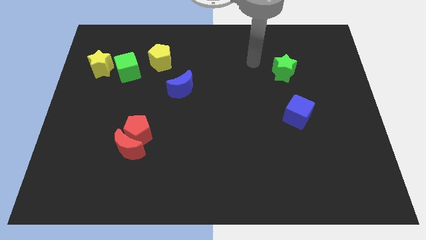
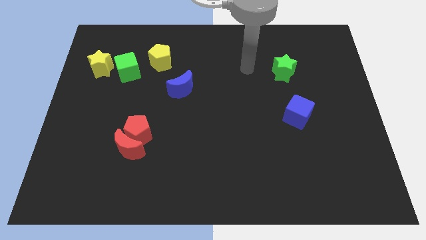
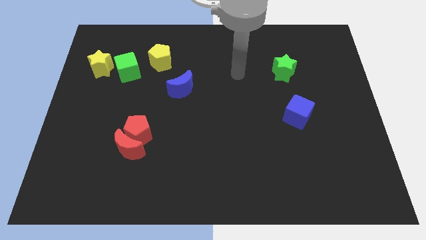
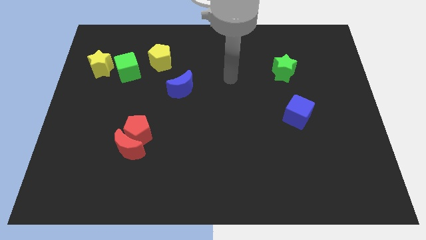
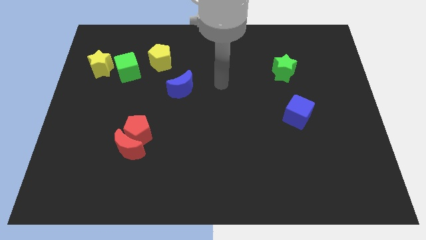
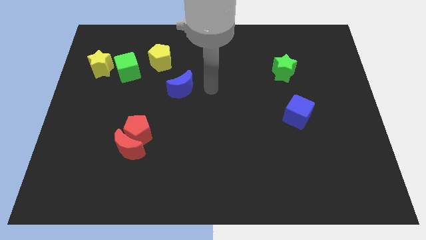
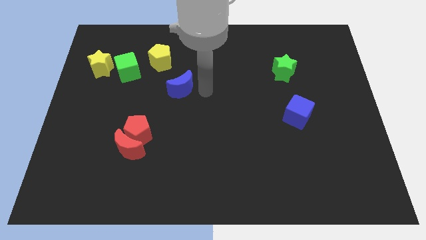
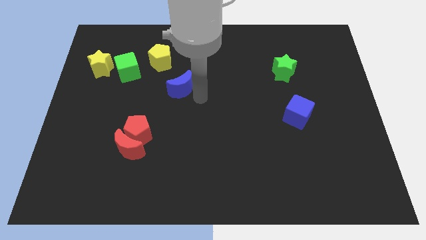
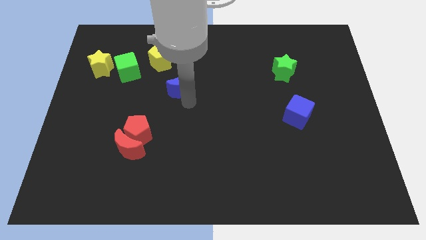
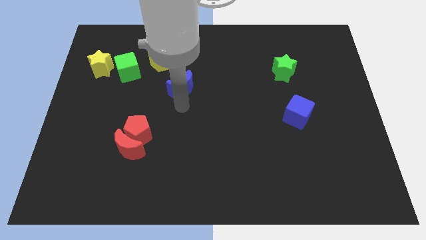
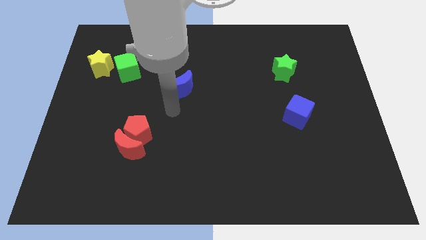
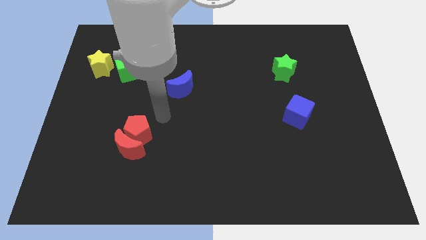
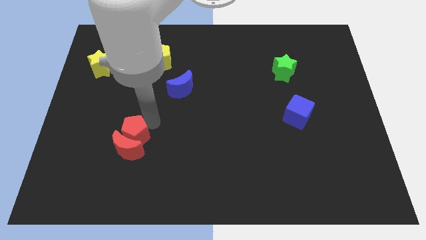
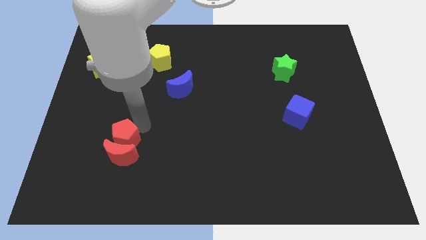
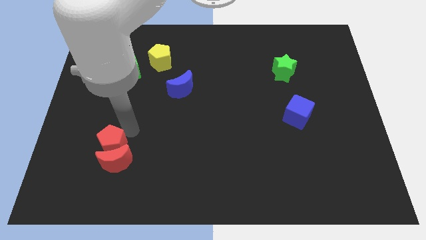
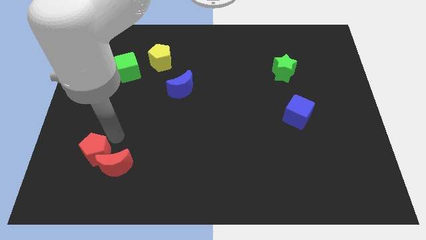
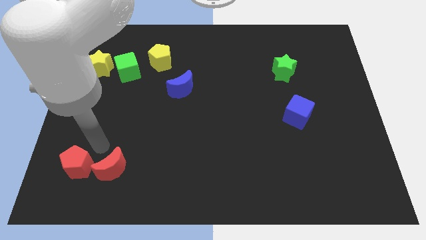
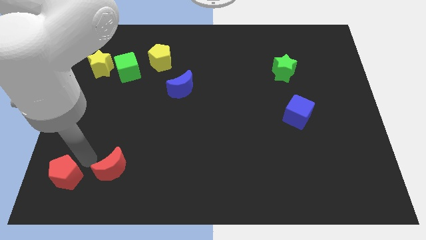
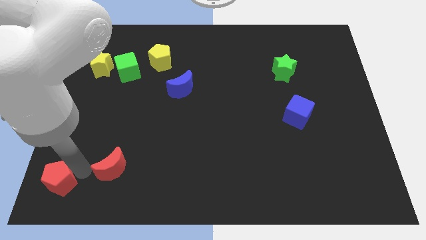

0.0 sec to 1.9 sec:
move the red moon away from the red pentagon

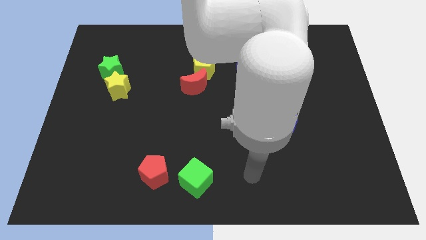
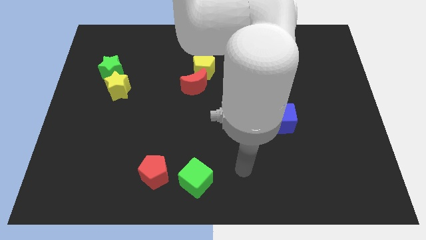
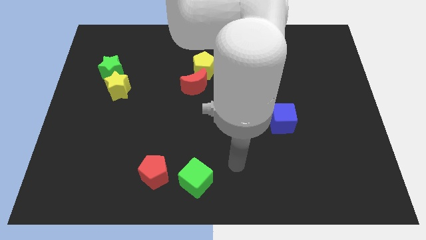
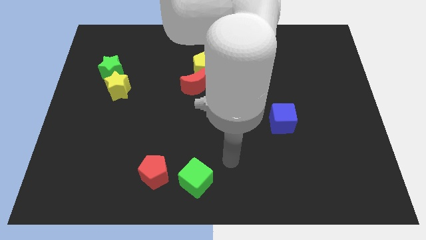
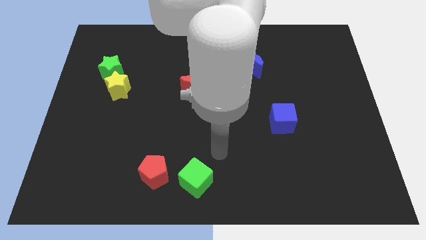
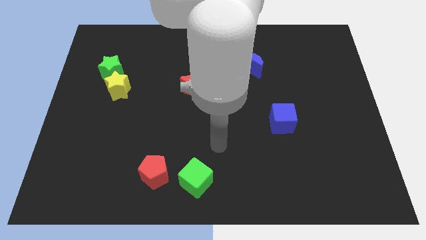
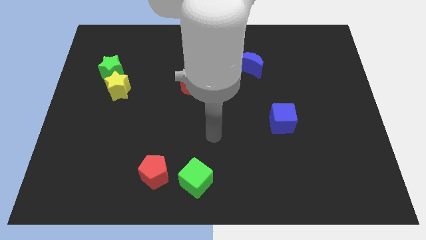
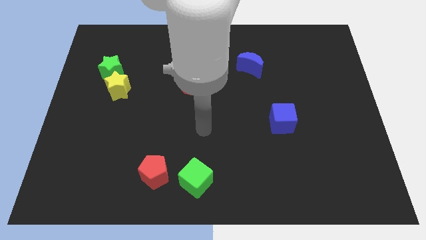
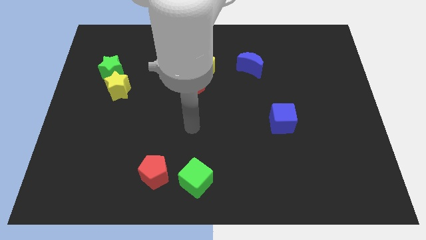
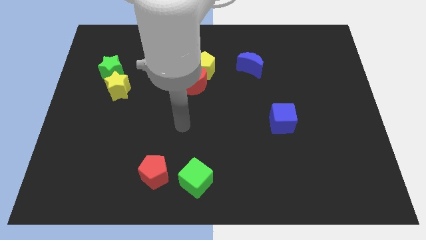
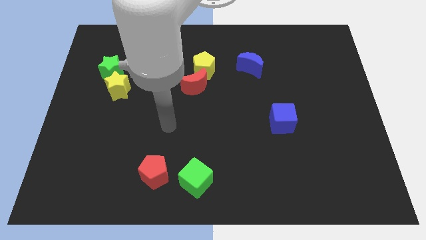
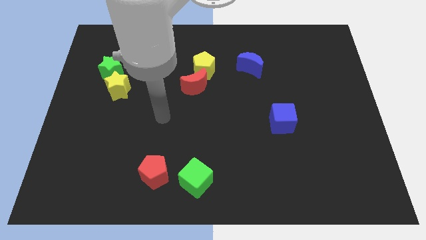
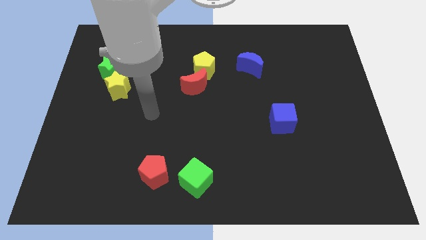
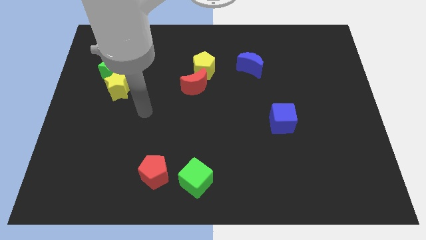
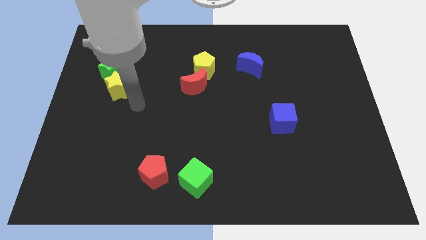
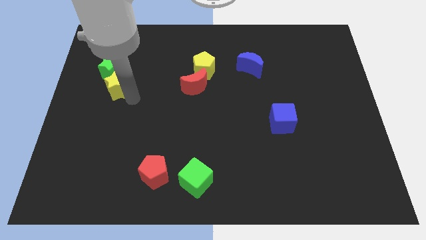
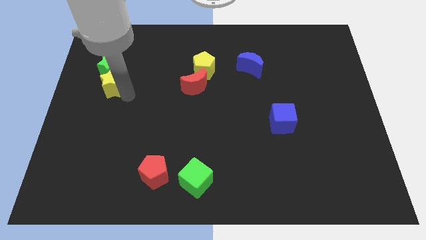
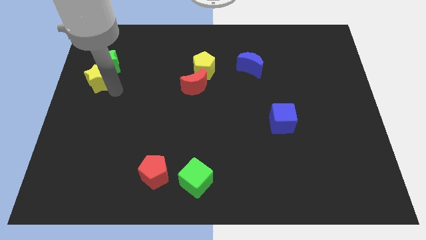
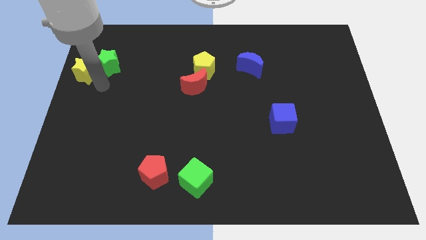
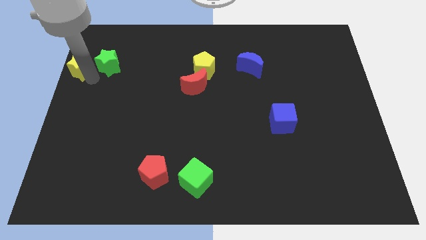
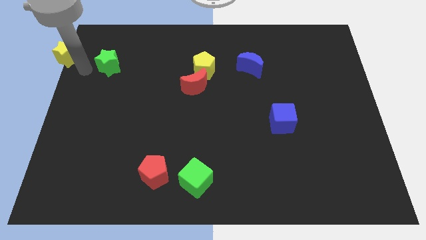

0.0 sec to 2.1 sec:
pull the green star apart from the yellow star

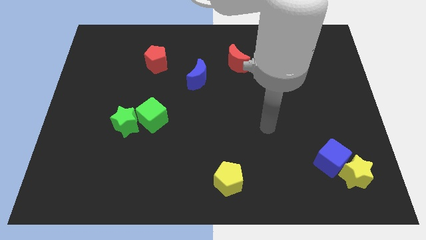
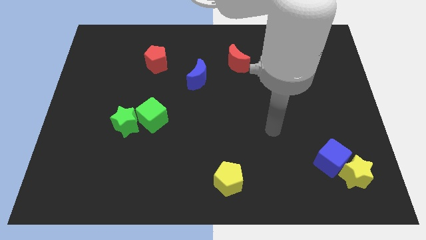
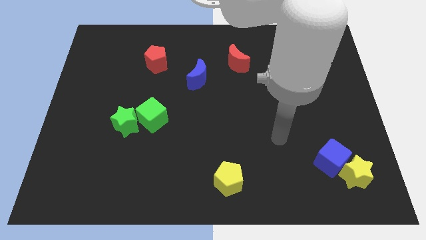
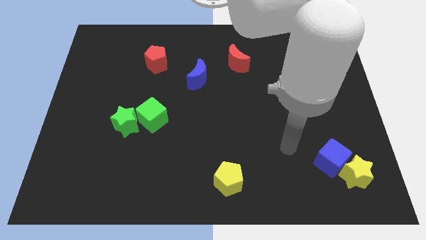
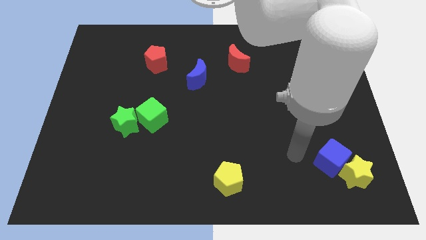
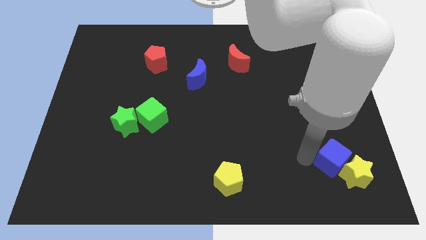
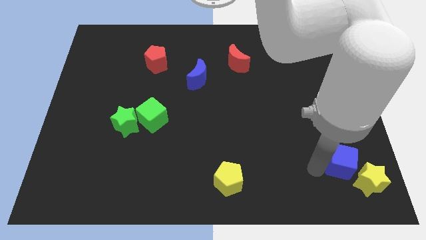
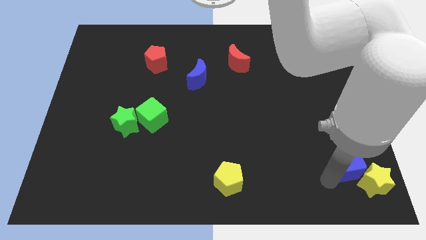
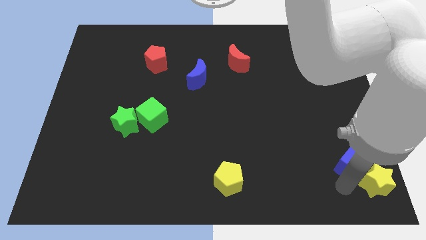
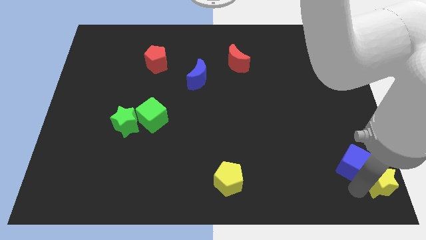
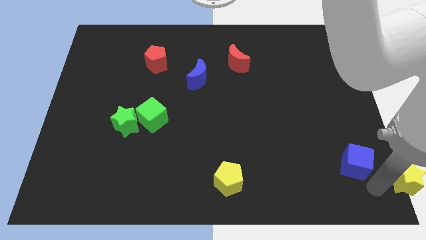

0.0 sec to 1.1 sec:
move the blue cube away from the yellow star

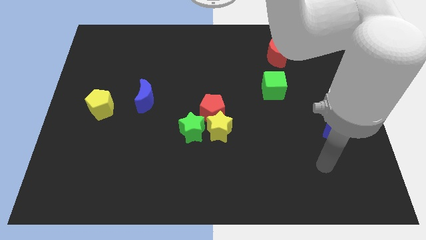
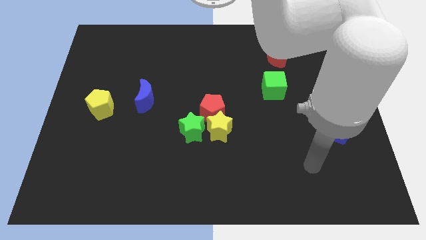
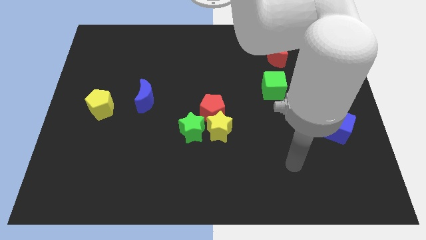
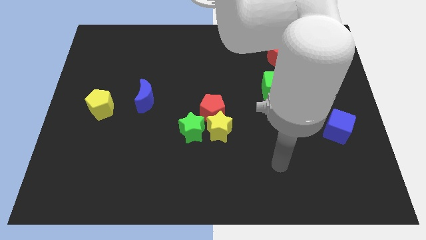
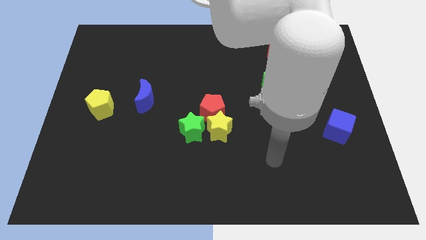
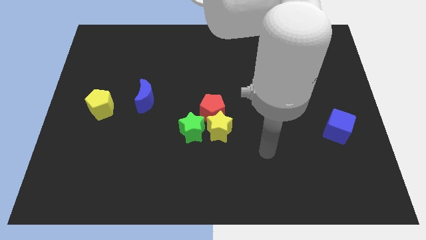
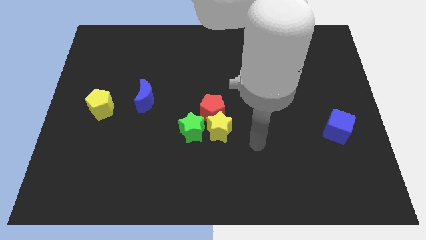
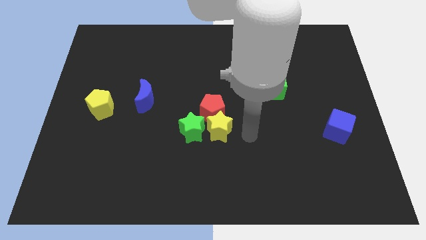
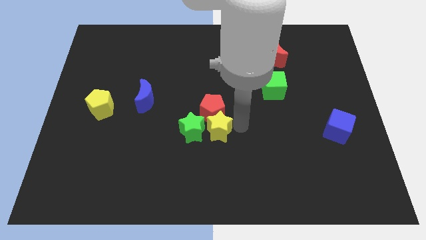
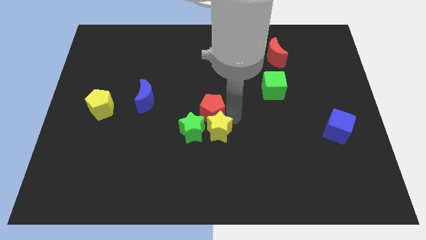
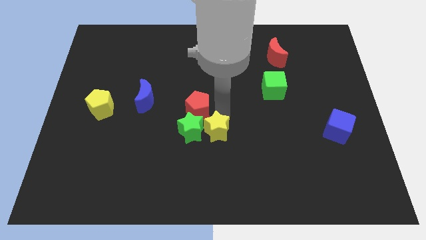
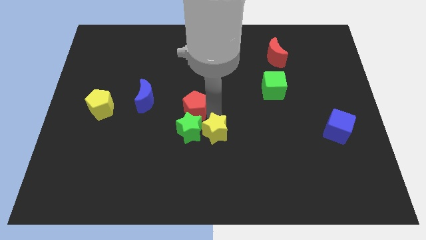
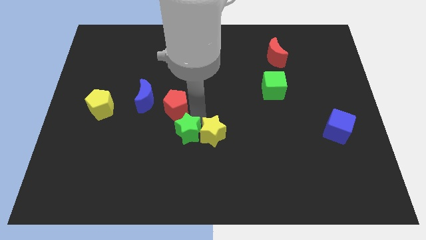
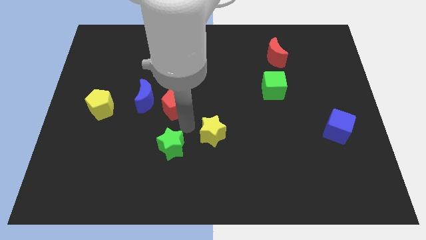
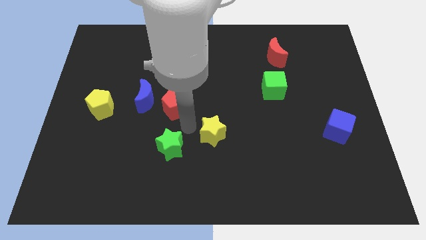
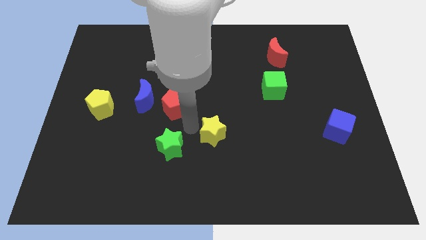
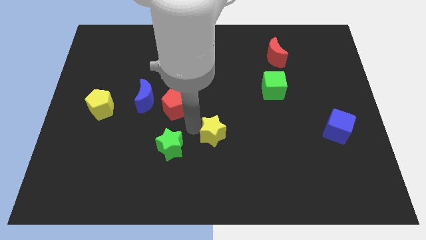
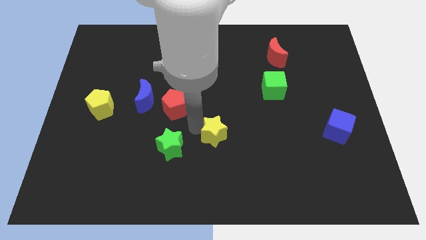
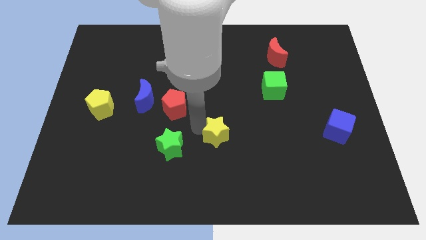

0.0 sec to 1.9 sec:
separate the yellow star from the red pentagon and green star

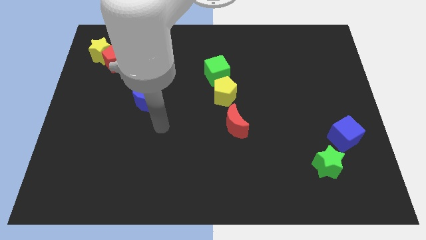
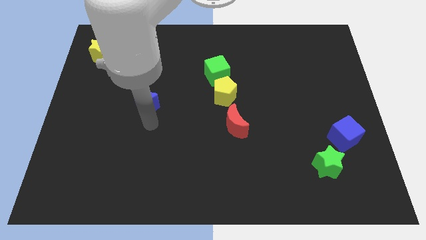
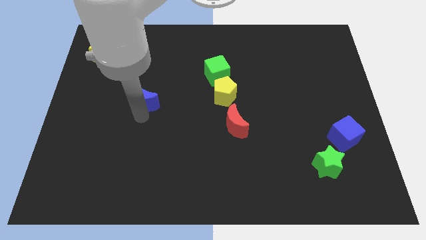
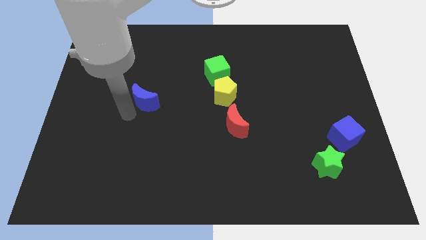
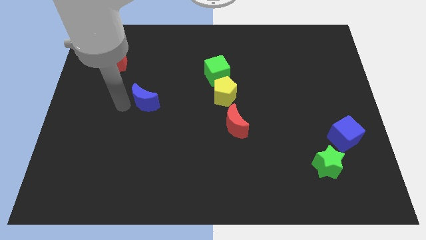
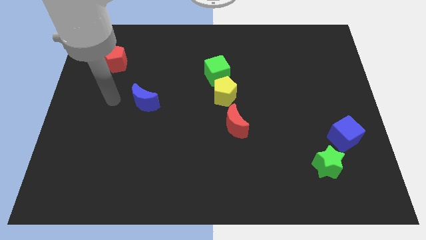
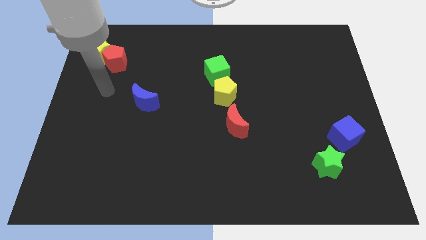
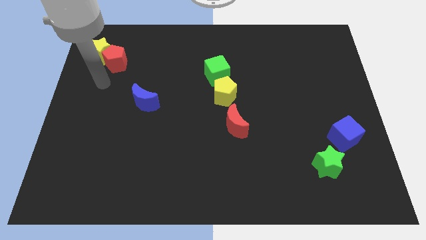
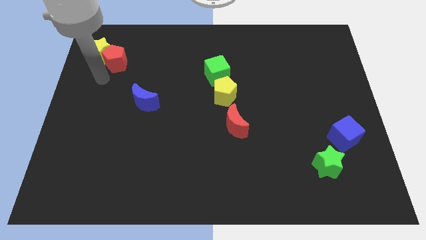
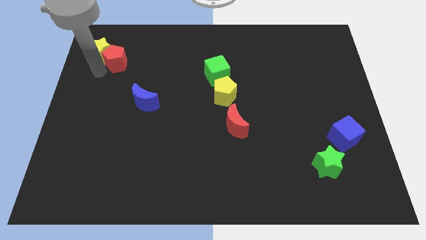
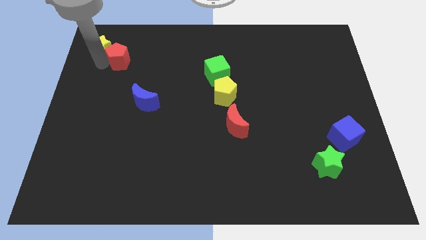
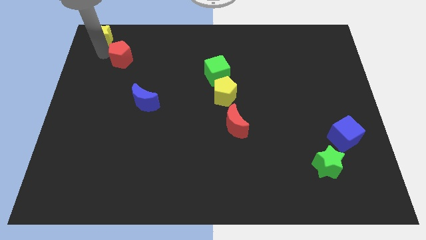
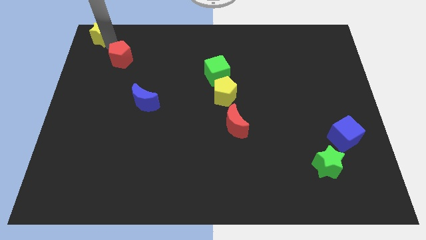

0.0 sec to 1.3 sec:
move the red pentagon away from the yellow star

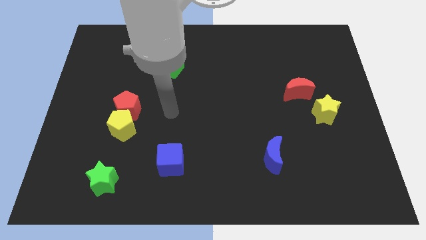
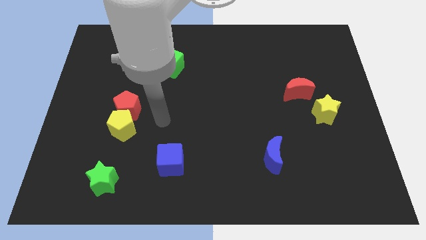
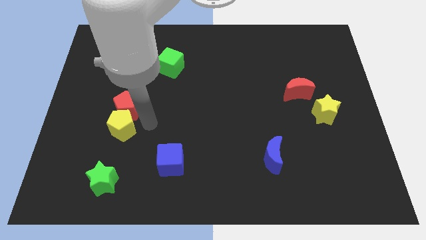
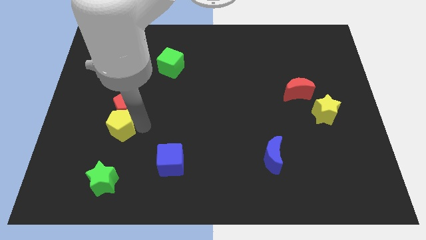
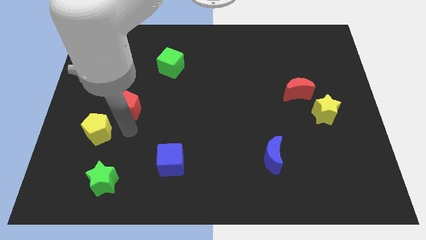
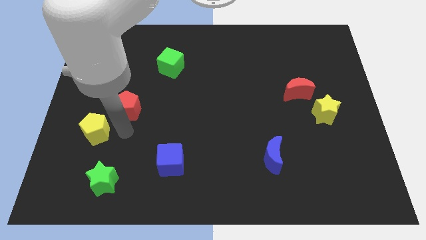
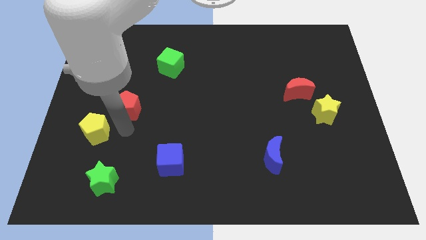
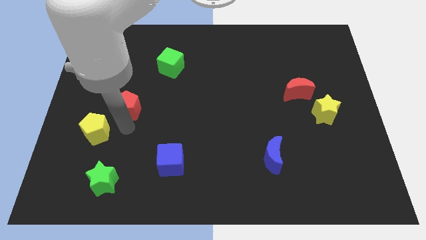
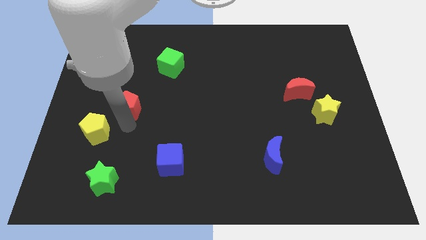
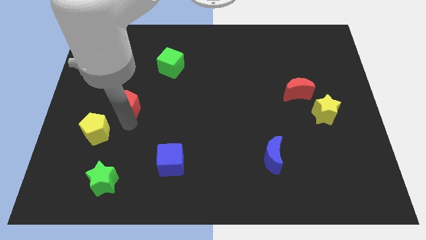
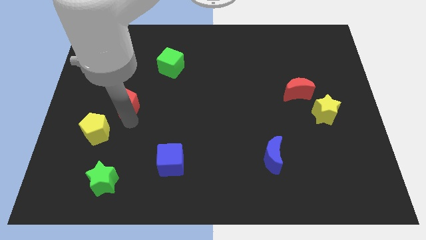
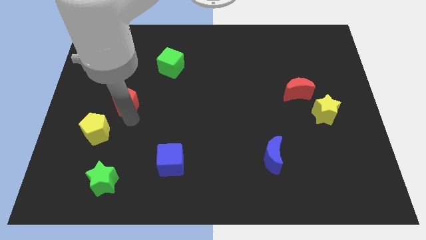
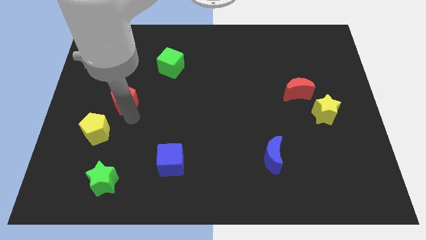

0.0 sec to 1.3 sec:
move the red pentagon away from the yellow pentagon
